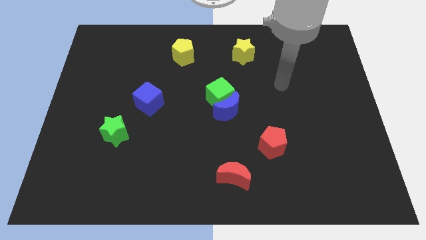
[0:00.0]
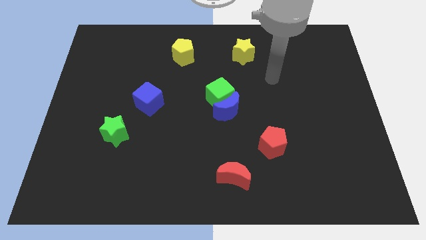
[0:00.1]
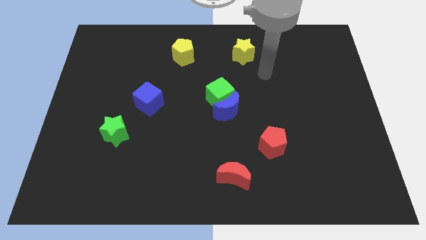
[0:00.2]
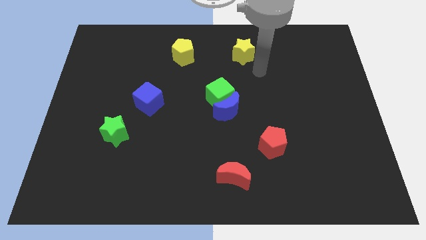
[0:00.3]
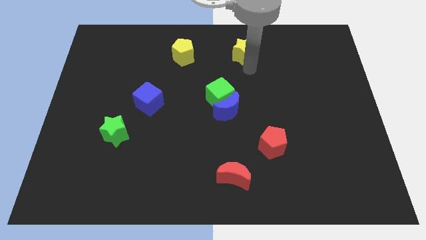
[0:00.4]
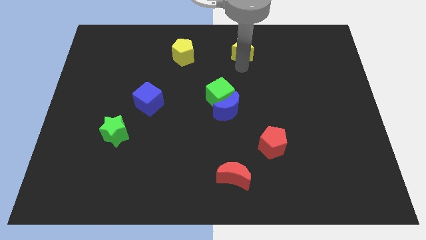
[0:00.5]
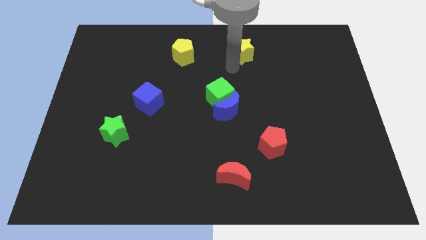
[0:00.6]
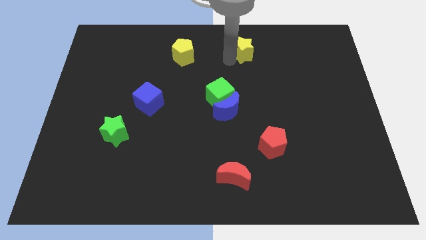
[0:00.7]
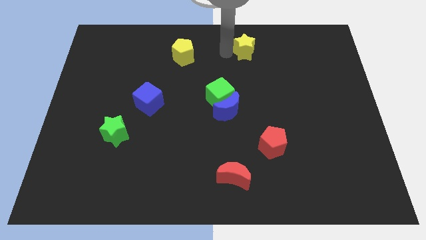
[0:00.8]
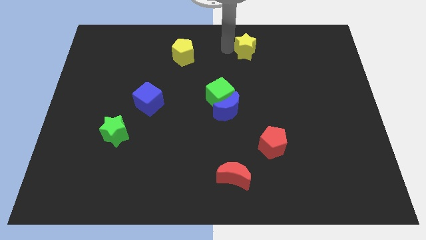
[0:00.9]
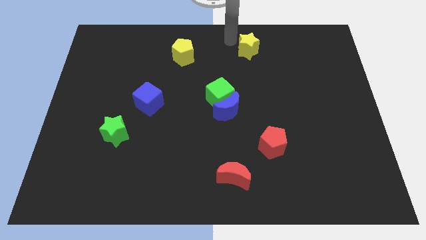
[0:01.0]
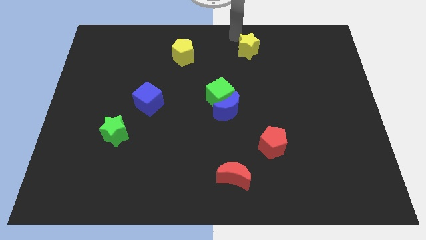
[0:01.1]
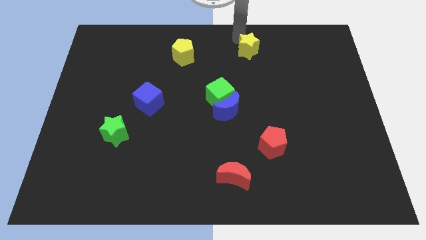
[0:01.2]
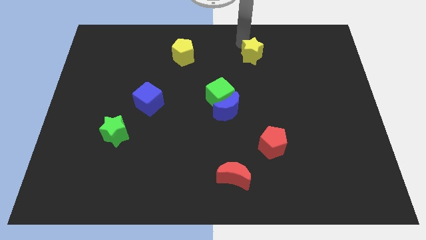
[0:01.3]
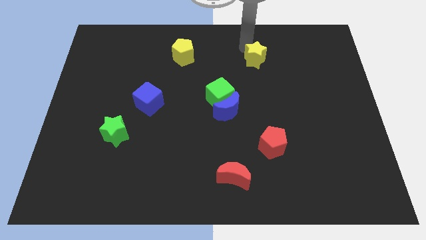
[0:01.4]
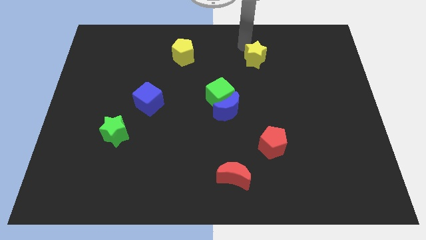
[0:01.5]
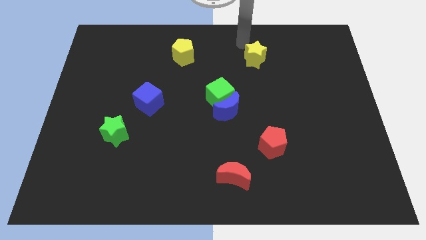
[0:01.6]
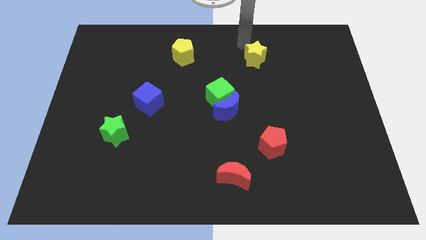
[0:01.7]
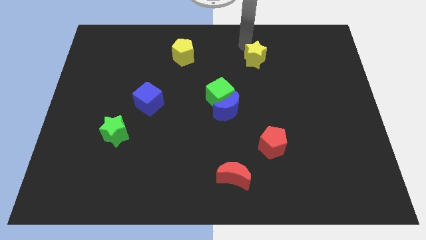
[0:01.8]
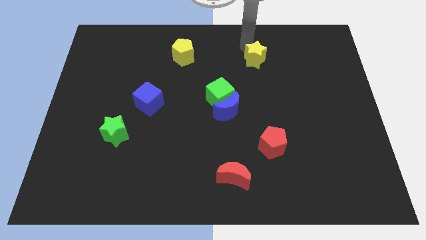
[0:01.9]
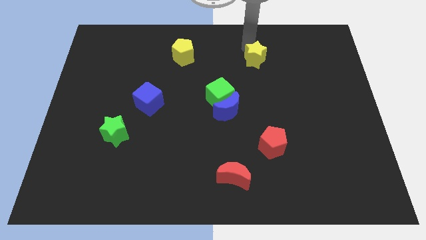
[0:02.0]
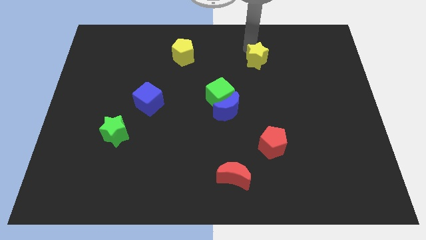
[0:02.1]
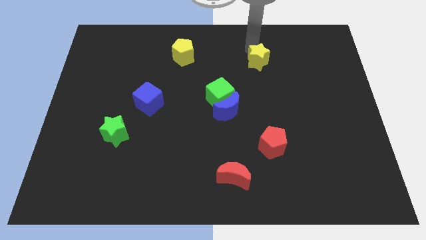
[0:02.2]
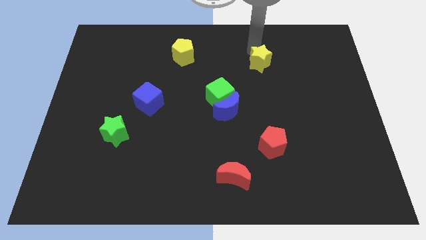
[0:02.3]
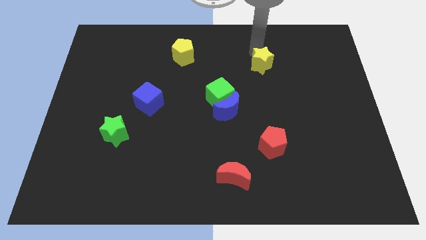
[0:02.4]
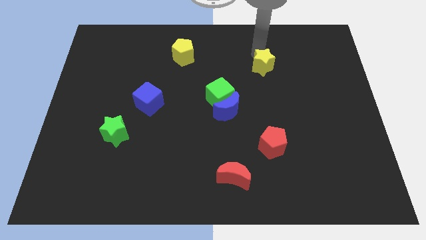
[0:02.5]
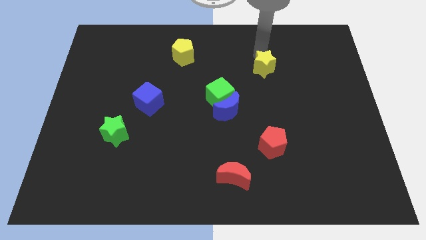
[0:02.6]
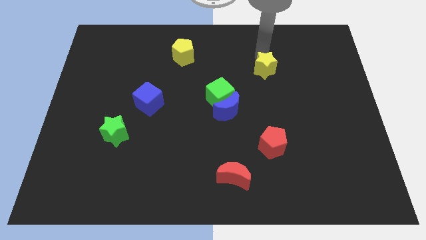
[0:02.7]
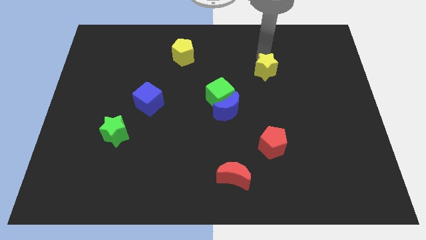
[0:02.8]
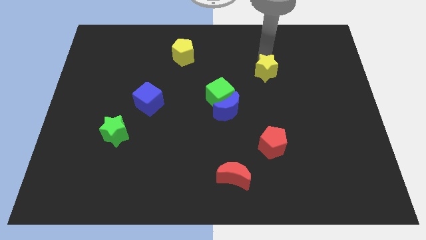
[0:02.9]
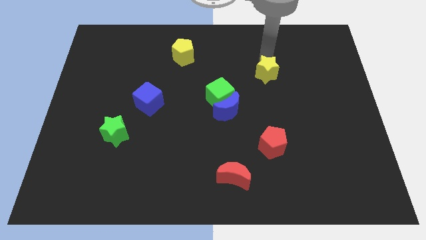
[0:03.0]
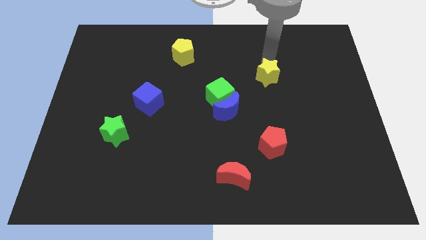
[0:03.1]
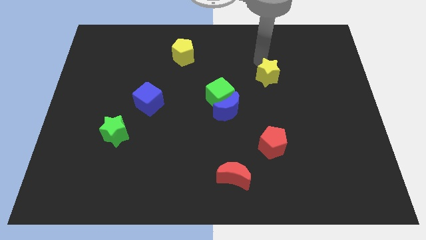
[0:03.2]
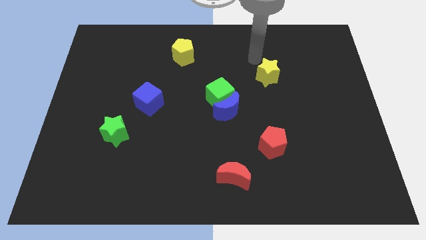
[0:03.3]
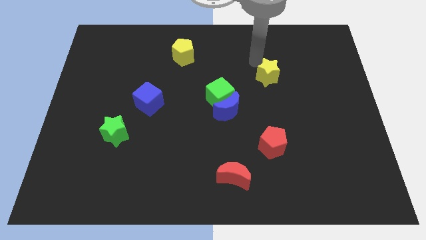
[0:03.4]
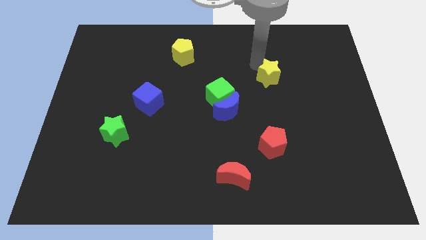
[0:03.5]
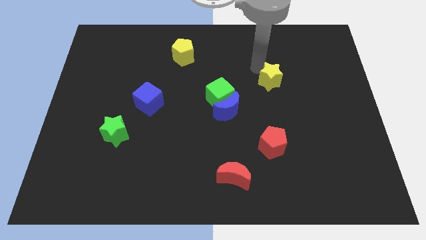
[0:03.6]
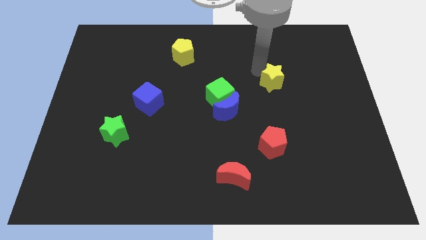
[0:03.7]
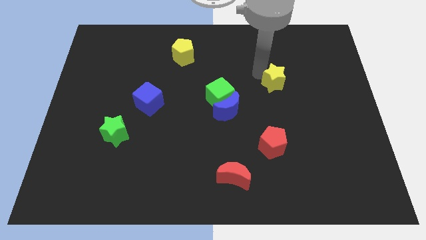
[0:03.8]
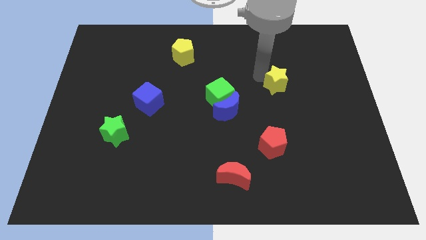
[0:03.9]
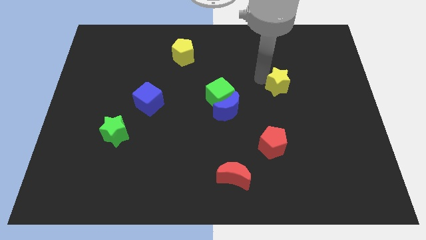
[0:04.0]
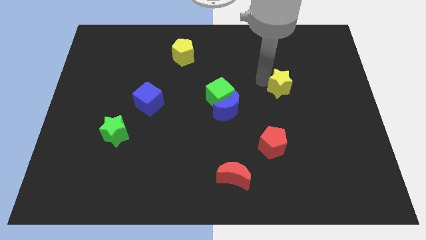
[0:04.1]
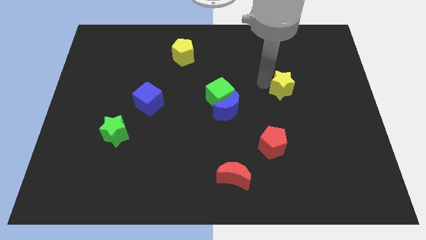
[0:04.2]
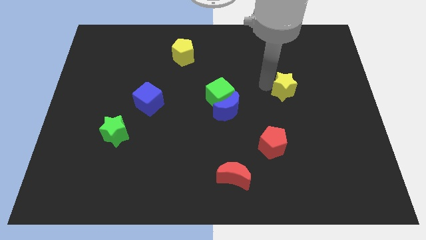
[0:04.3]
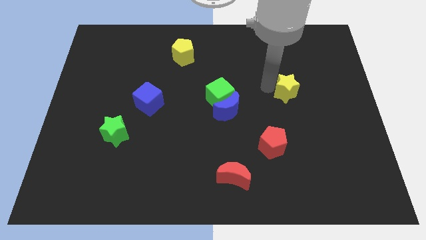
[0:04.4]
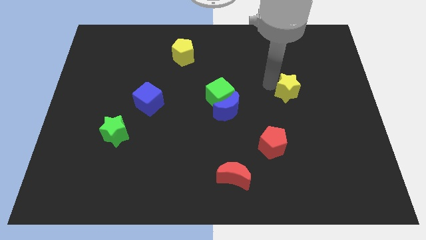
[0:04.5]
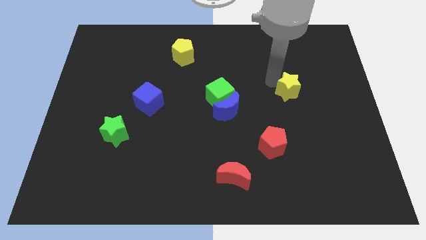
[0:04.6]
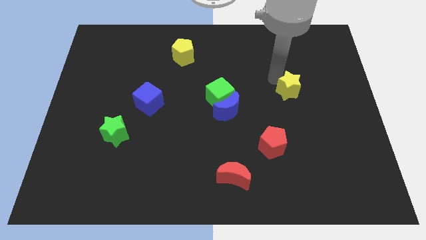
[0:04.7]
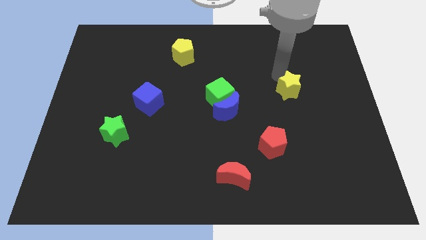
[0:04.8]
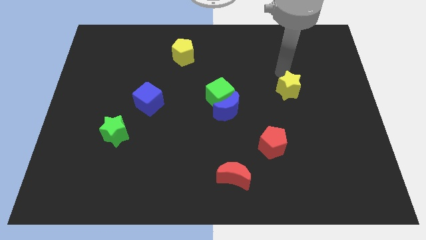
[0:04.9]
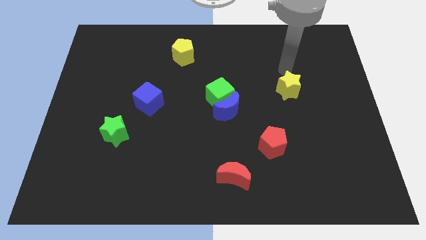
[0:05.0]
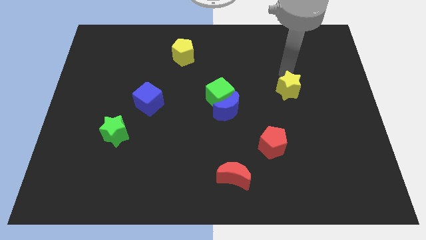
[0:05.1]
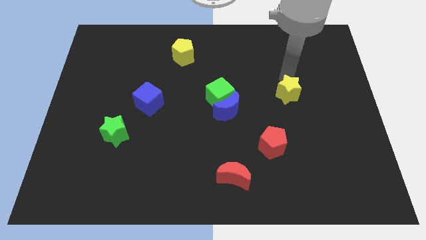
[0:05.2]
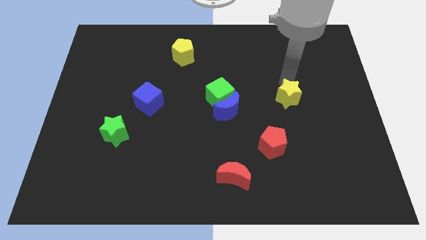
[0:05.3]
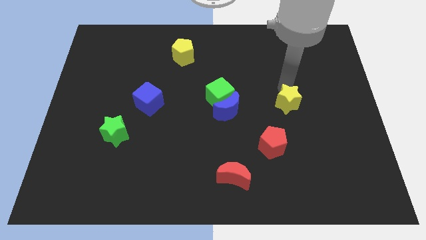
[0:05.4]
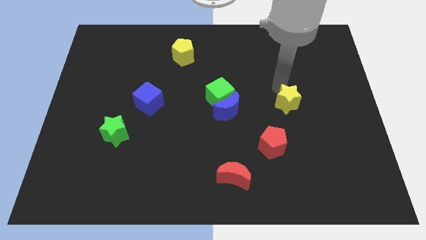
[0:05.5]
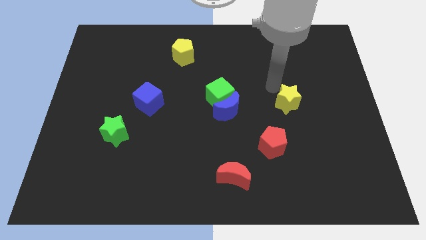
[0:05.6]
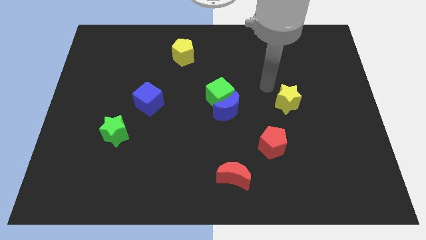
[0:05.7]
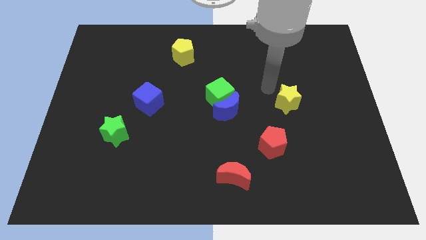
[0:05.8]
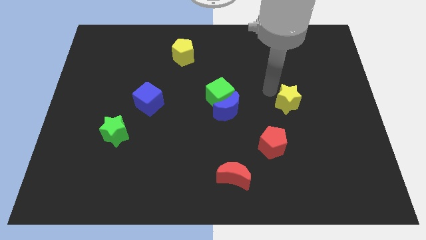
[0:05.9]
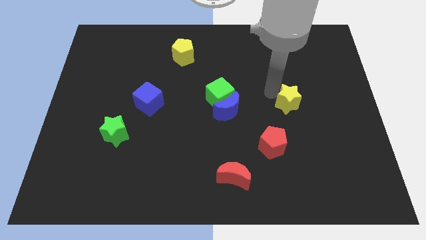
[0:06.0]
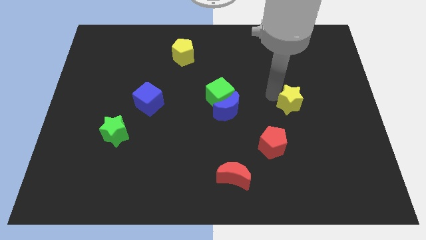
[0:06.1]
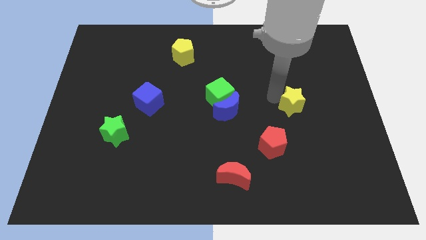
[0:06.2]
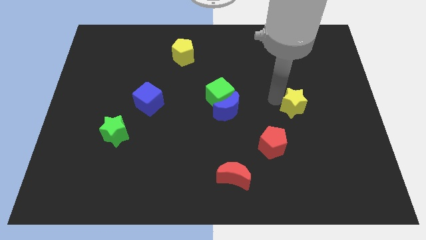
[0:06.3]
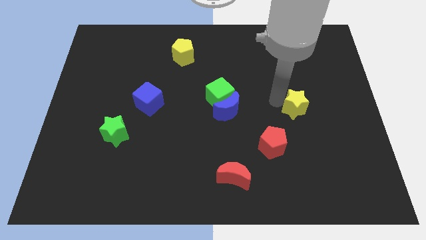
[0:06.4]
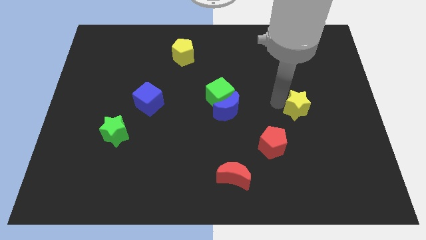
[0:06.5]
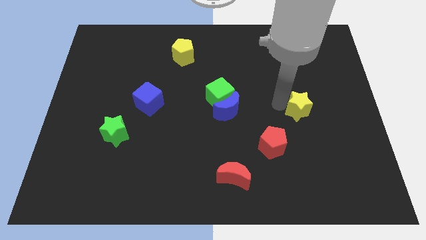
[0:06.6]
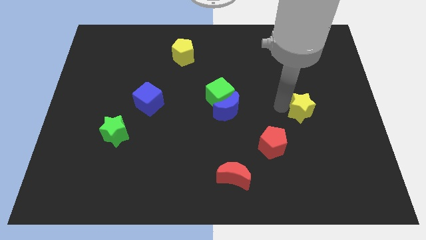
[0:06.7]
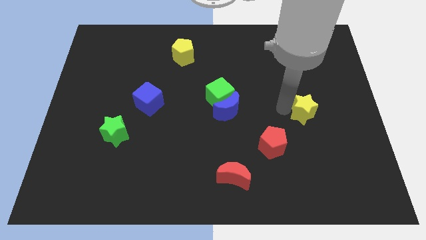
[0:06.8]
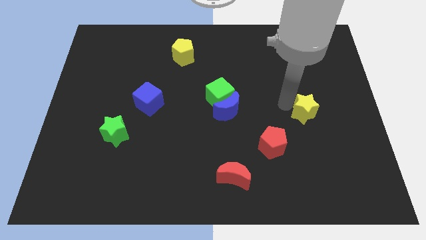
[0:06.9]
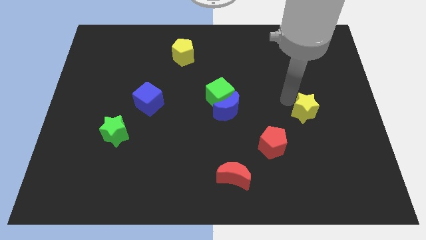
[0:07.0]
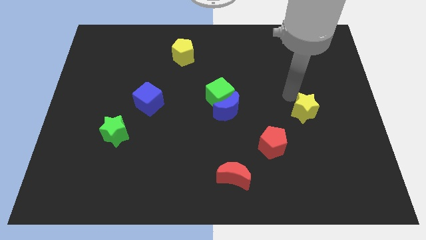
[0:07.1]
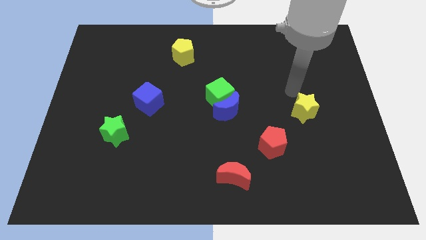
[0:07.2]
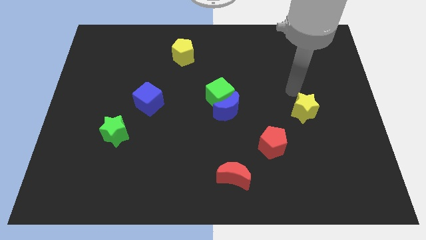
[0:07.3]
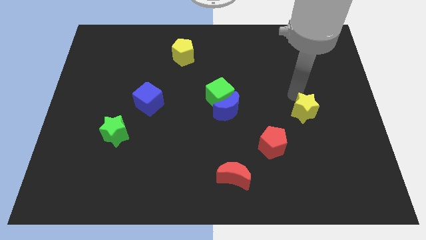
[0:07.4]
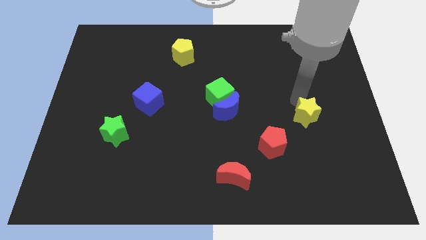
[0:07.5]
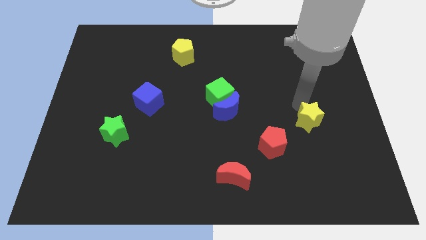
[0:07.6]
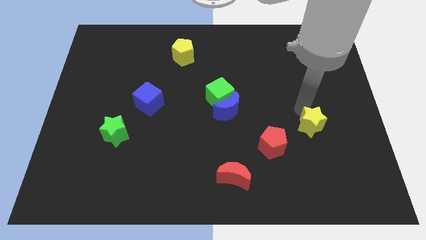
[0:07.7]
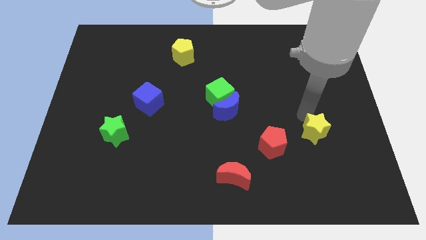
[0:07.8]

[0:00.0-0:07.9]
move the yellow star right of the red pentagon
